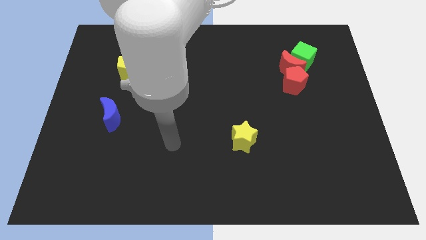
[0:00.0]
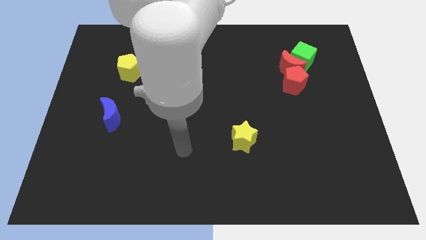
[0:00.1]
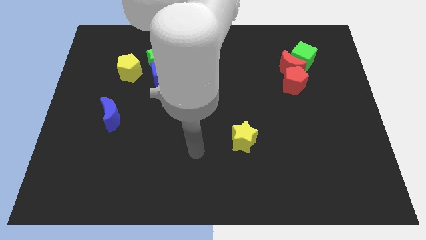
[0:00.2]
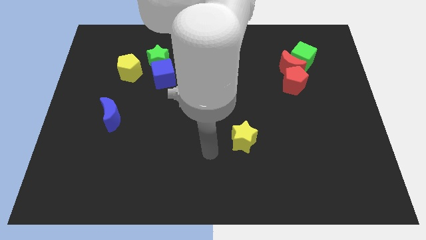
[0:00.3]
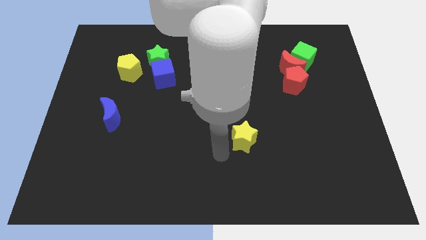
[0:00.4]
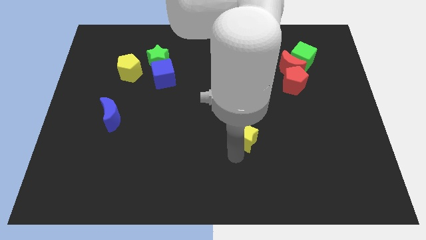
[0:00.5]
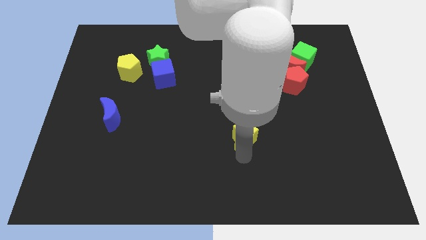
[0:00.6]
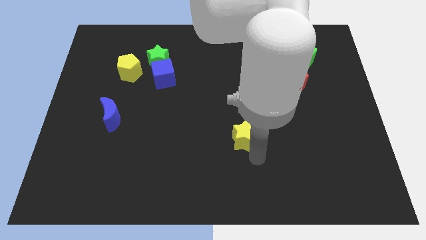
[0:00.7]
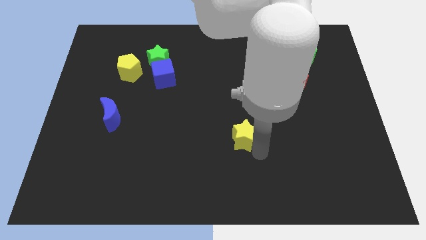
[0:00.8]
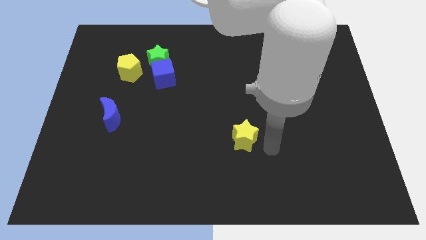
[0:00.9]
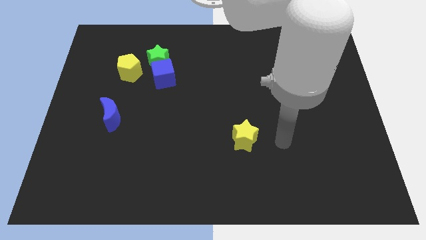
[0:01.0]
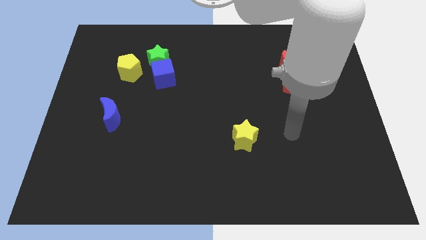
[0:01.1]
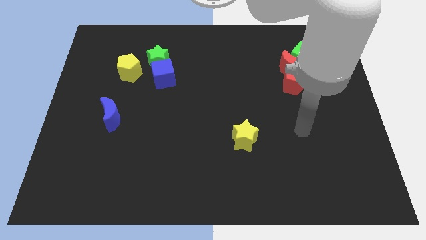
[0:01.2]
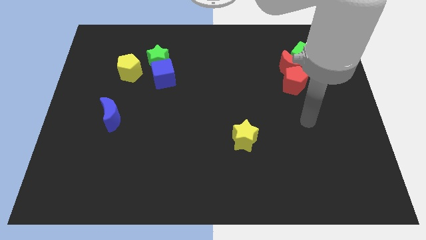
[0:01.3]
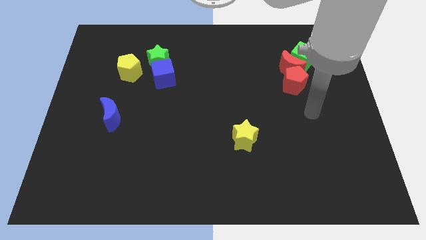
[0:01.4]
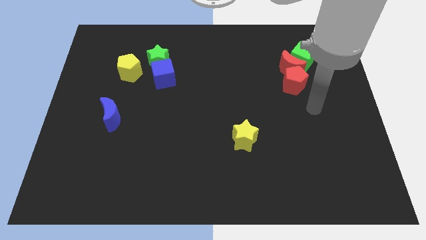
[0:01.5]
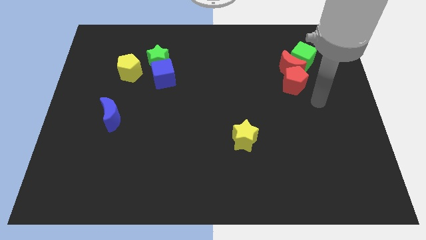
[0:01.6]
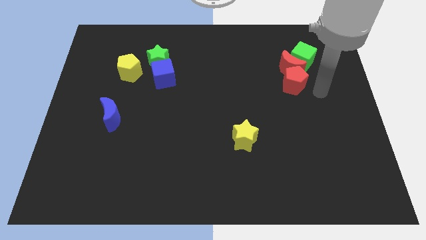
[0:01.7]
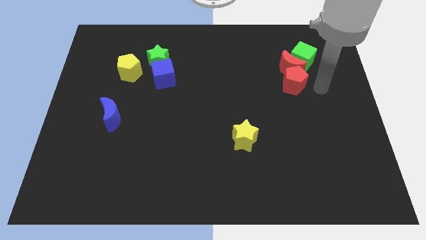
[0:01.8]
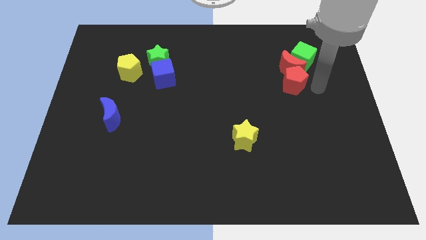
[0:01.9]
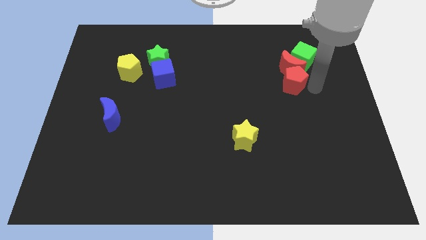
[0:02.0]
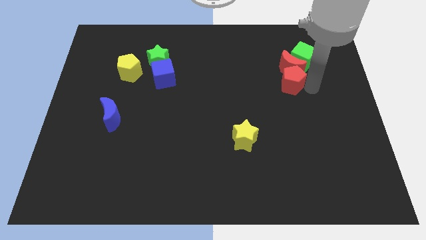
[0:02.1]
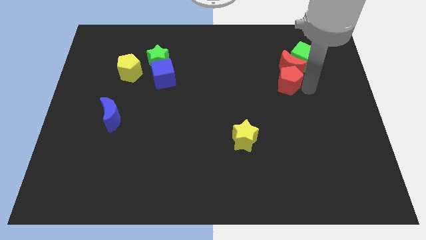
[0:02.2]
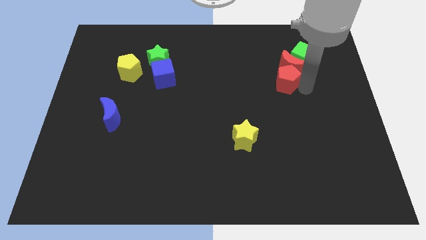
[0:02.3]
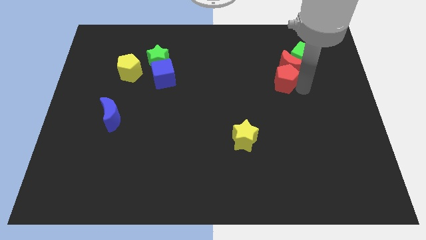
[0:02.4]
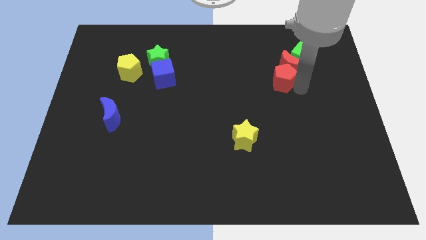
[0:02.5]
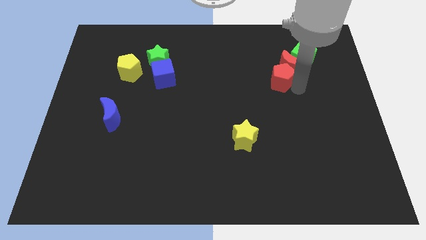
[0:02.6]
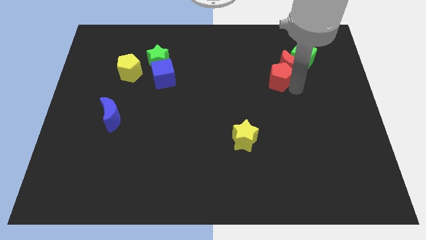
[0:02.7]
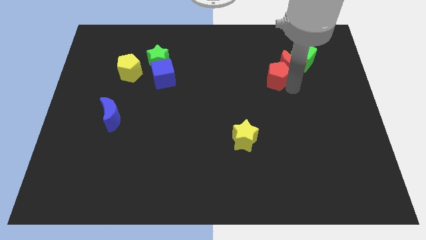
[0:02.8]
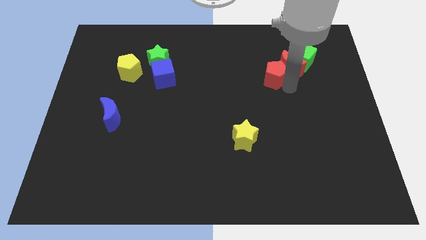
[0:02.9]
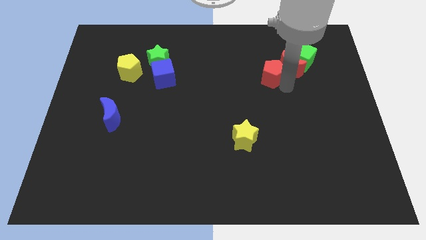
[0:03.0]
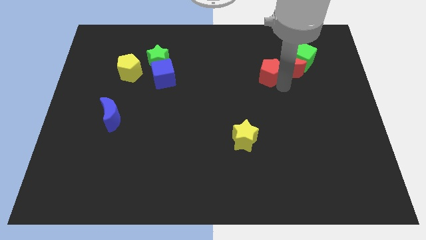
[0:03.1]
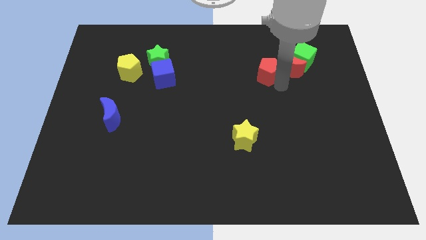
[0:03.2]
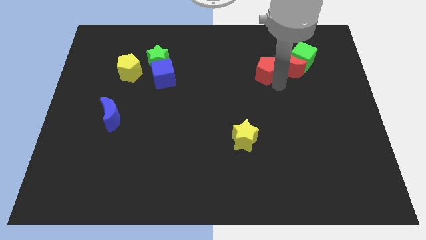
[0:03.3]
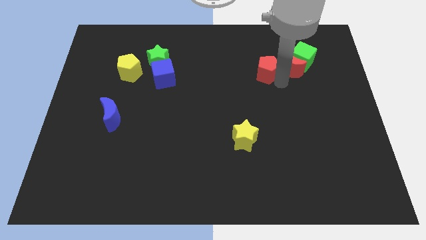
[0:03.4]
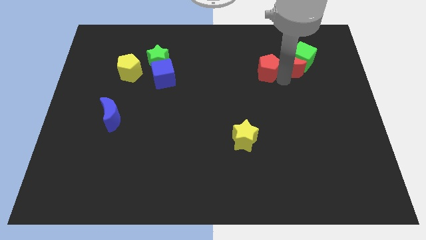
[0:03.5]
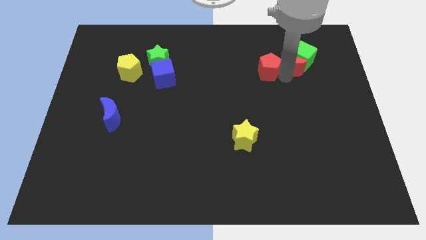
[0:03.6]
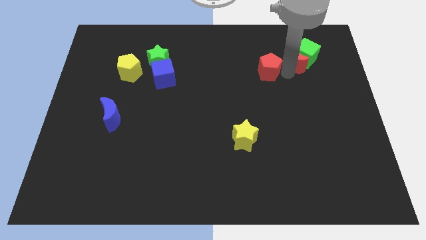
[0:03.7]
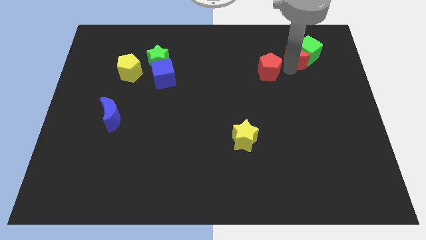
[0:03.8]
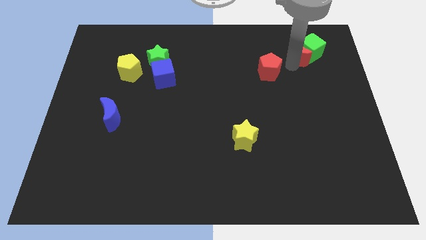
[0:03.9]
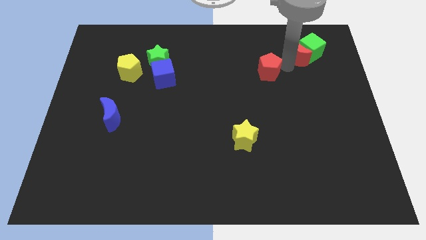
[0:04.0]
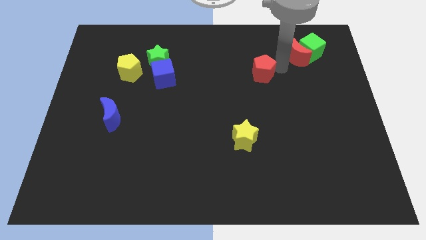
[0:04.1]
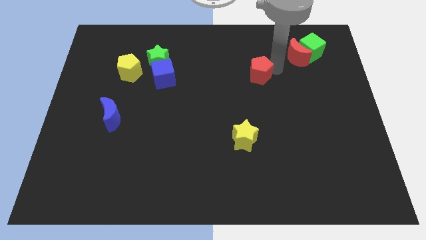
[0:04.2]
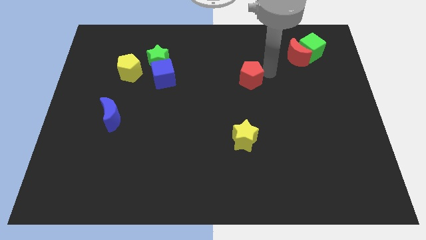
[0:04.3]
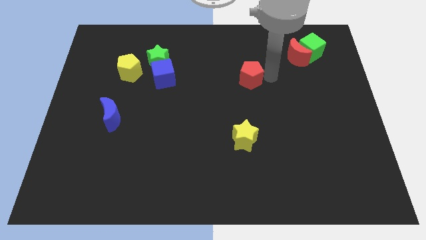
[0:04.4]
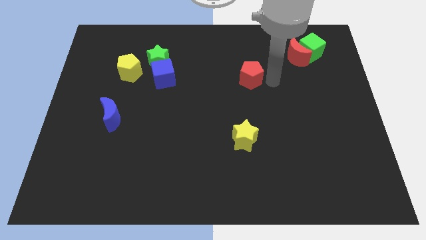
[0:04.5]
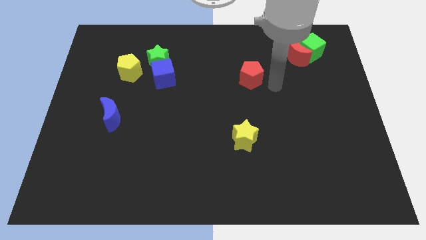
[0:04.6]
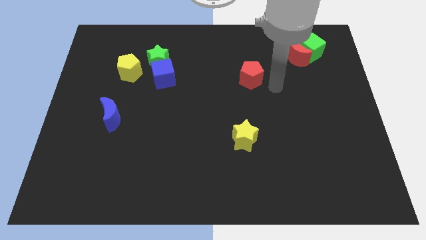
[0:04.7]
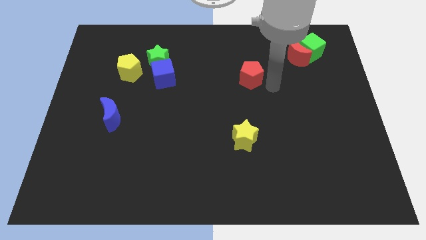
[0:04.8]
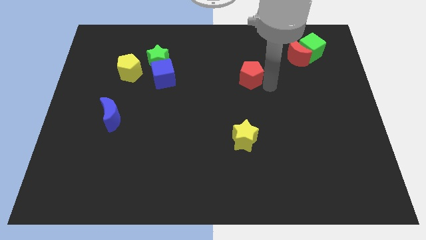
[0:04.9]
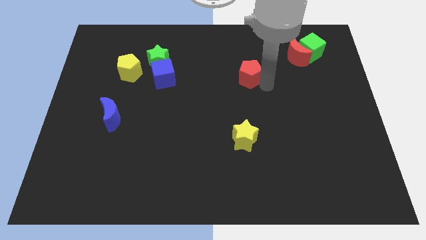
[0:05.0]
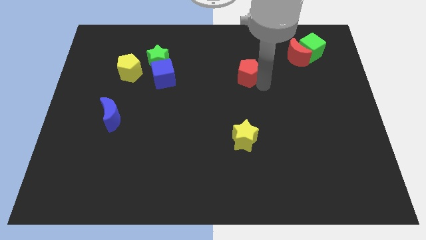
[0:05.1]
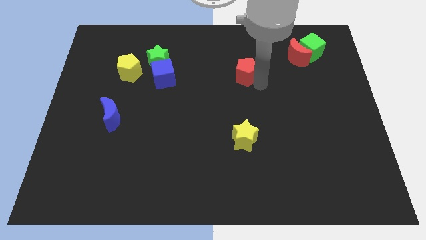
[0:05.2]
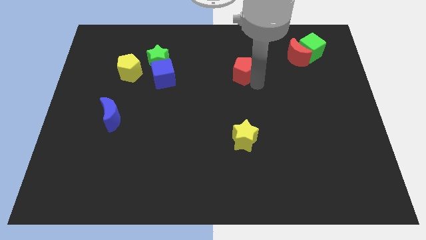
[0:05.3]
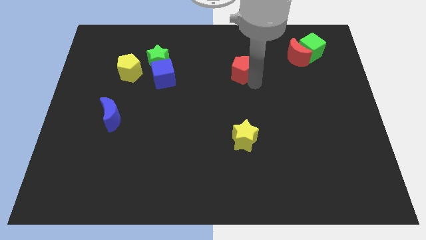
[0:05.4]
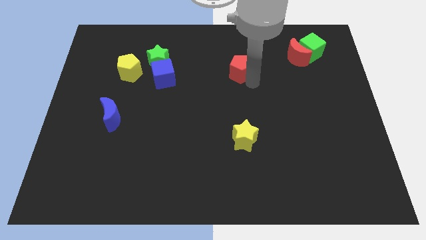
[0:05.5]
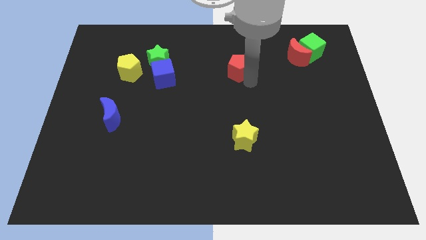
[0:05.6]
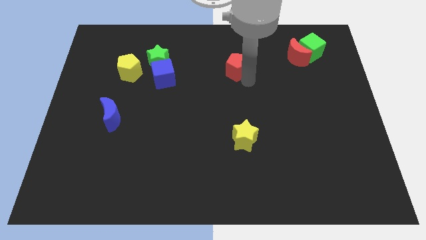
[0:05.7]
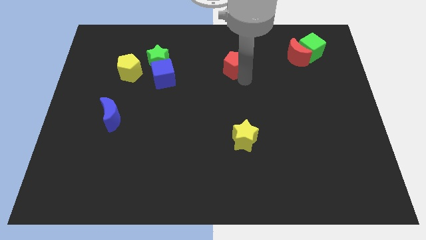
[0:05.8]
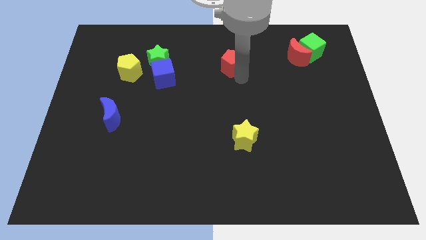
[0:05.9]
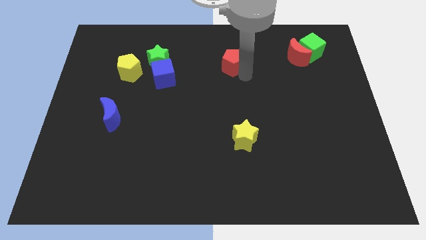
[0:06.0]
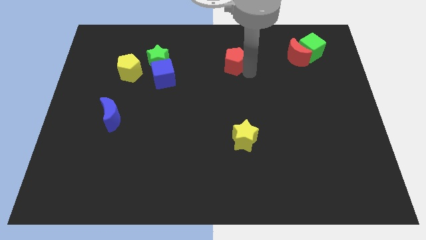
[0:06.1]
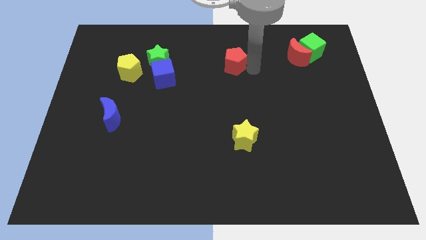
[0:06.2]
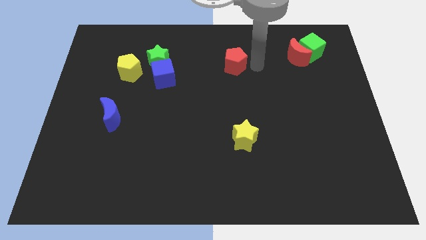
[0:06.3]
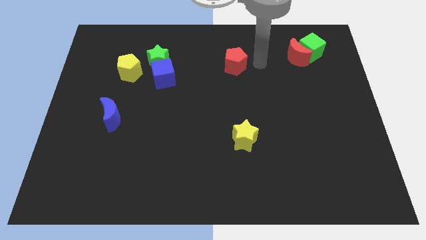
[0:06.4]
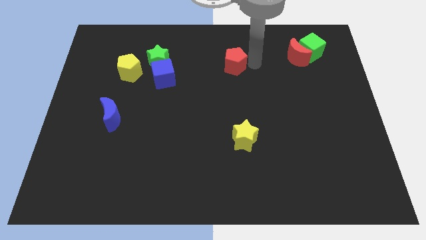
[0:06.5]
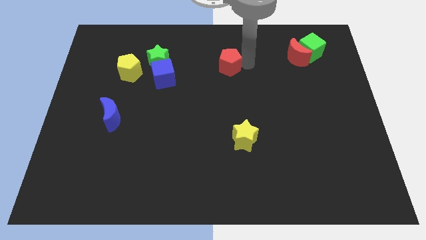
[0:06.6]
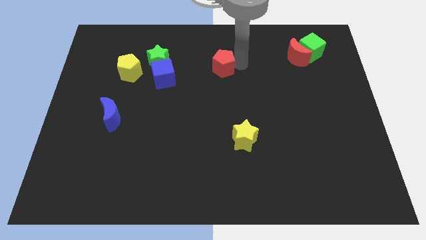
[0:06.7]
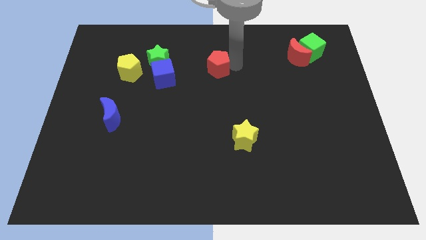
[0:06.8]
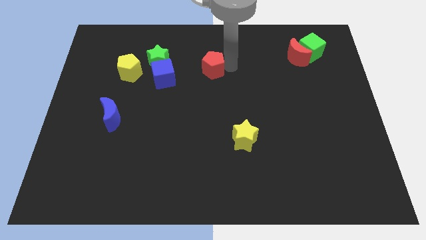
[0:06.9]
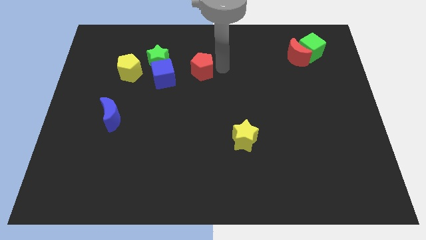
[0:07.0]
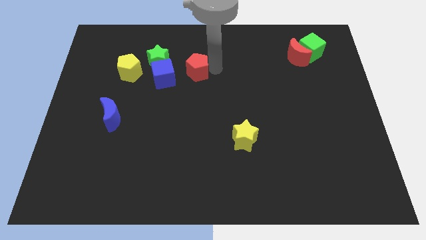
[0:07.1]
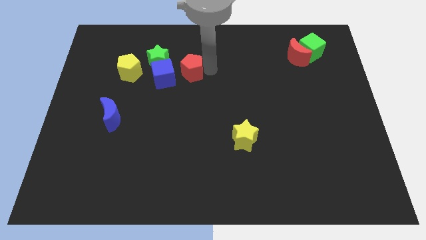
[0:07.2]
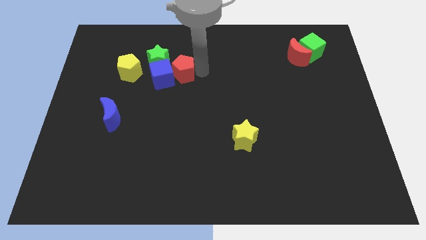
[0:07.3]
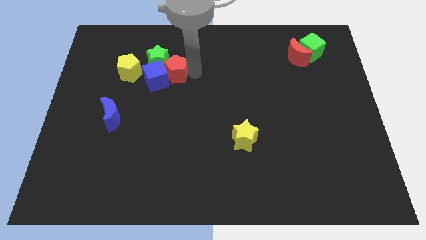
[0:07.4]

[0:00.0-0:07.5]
push the red pentagon next to the green star
